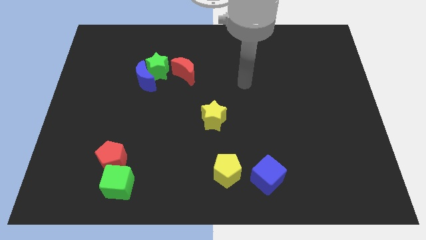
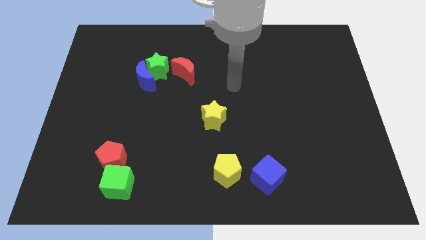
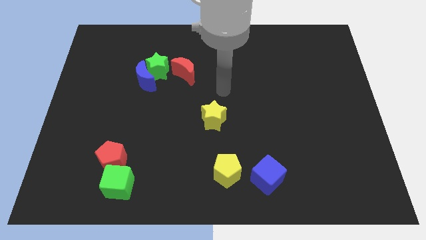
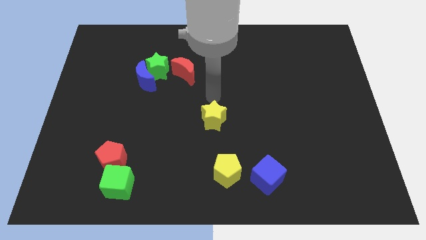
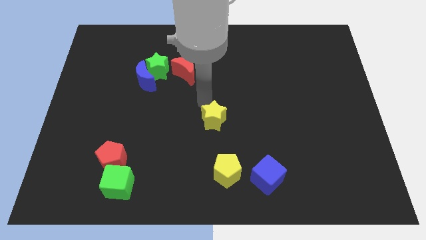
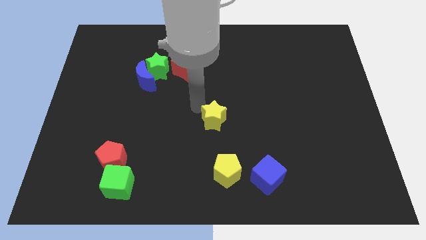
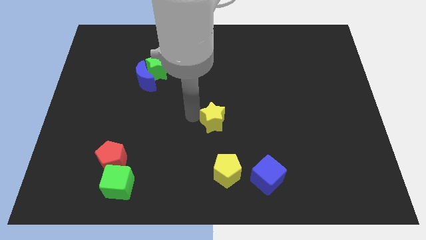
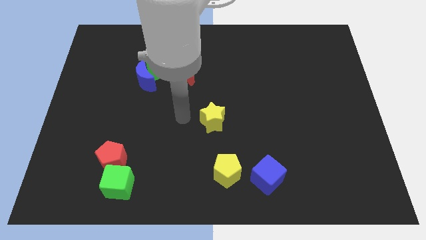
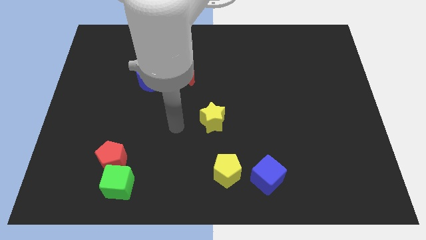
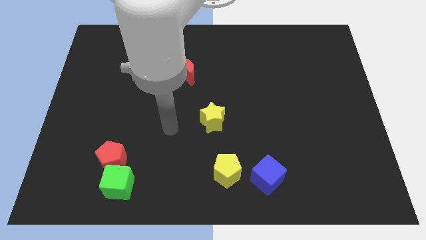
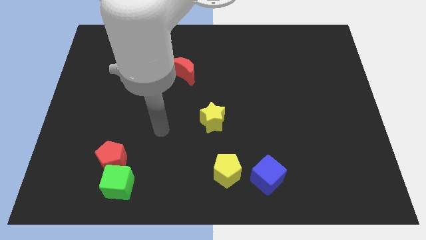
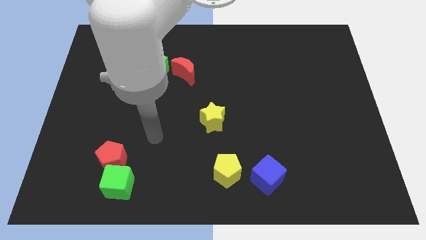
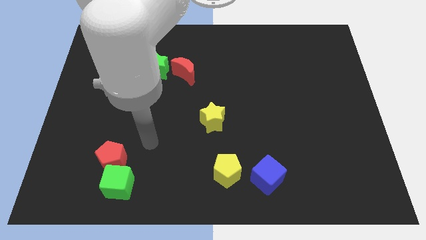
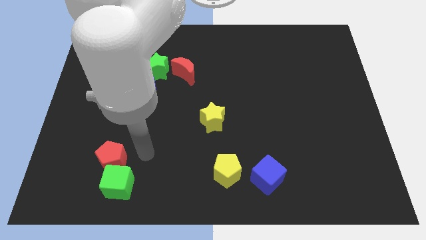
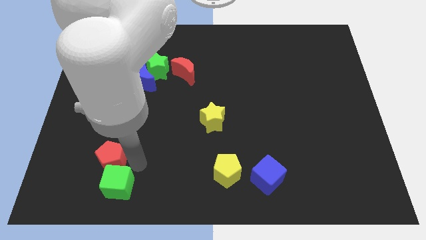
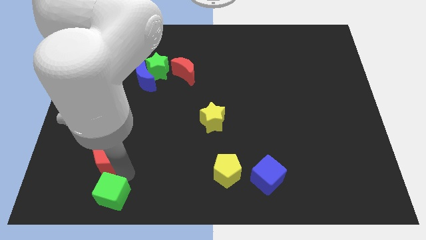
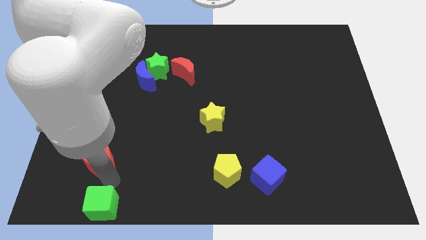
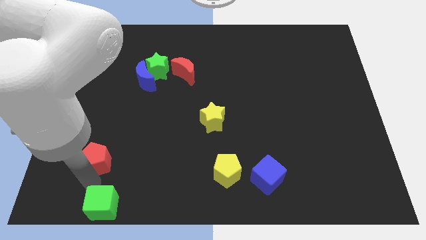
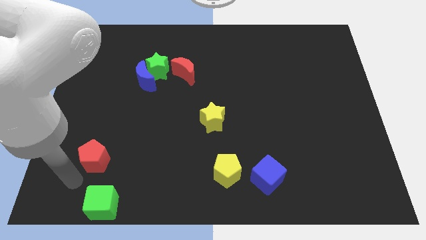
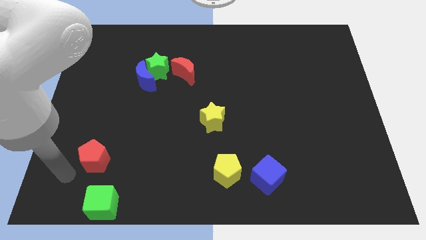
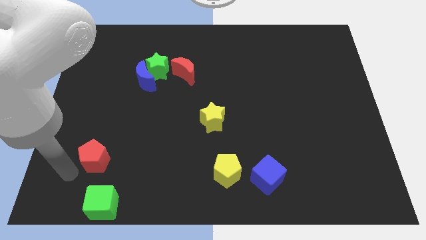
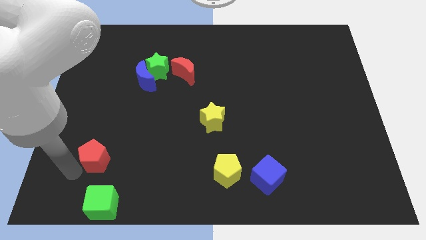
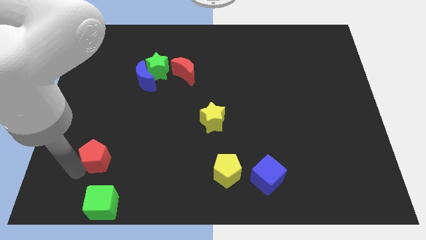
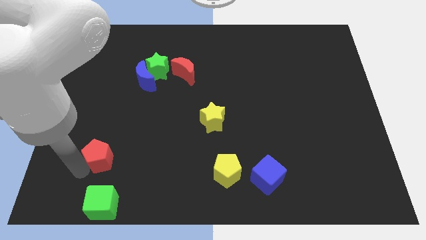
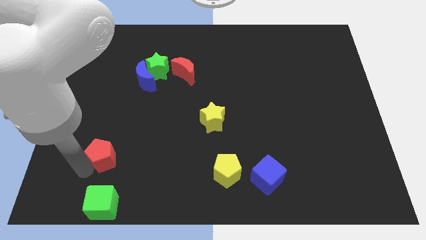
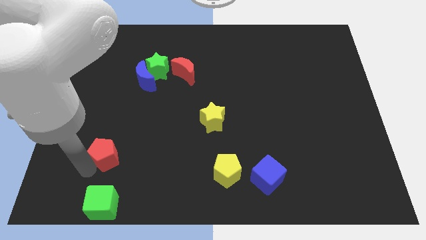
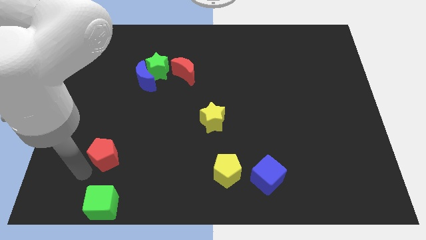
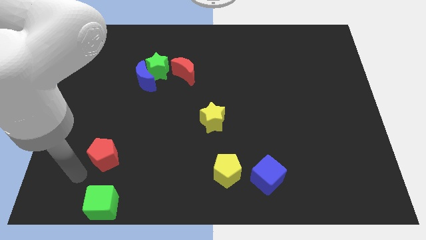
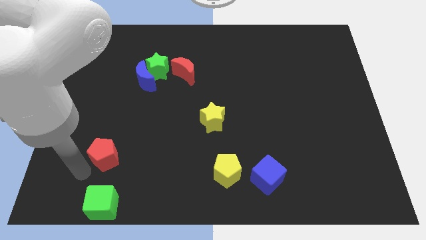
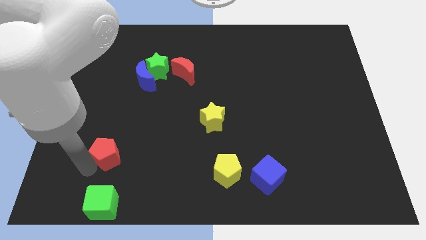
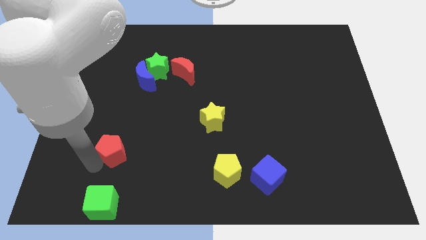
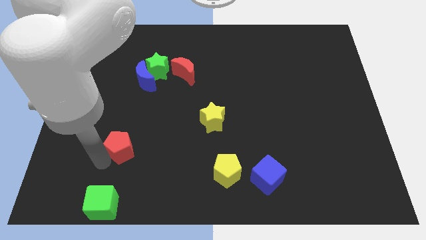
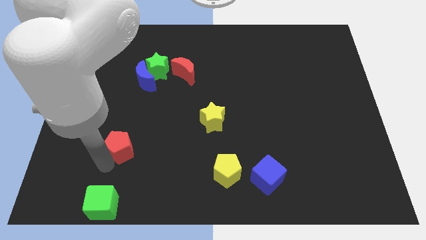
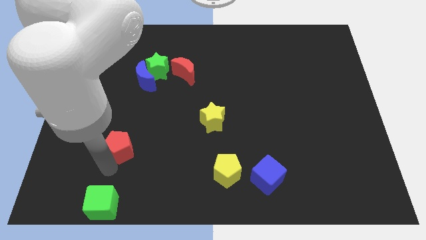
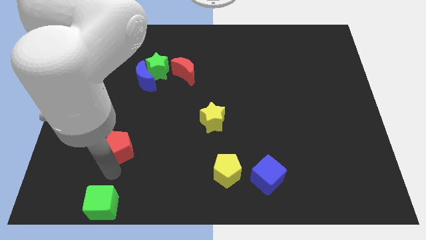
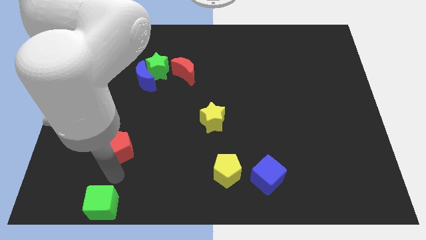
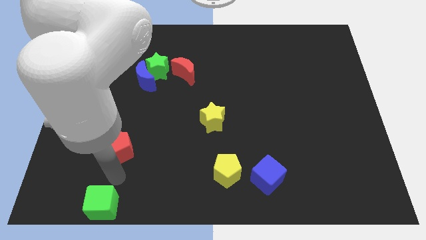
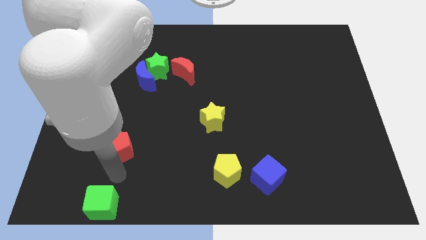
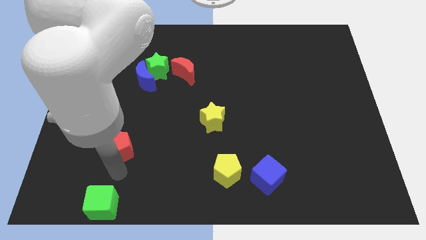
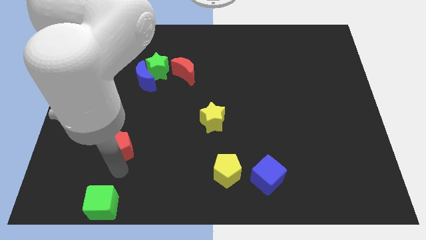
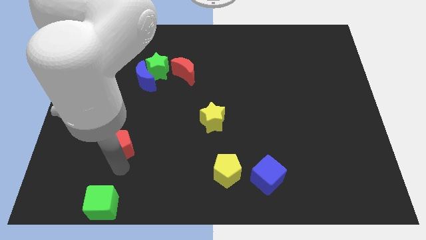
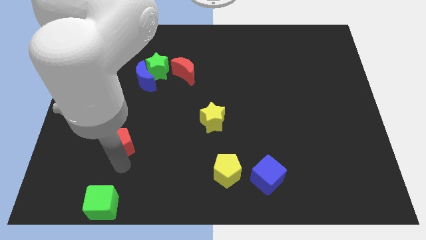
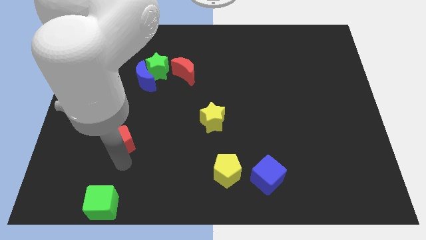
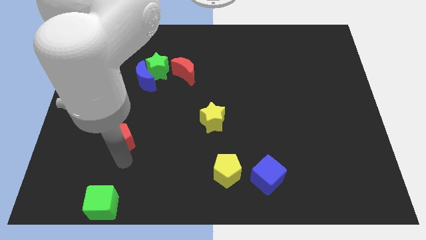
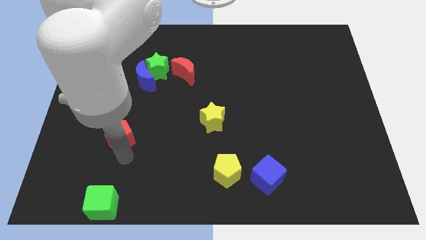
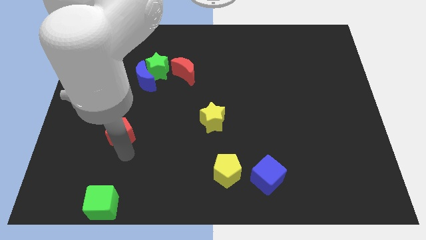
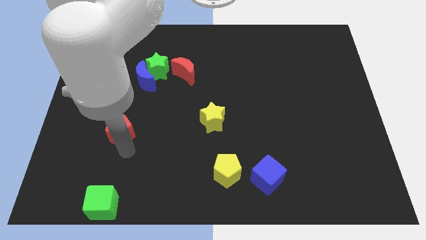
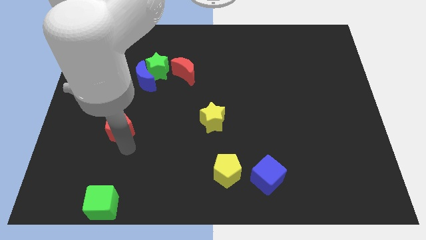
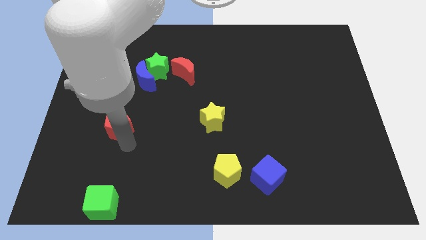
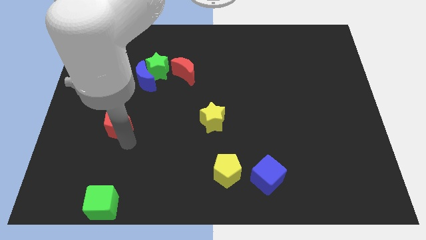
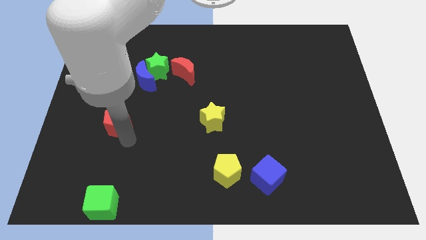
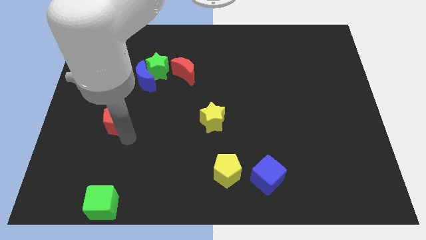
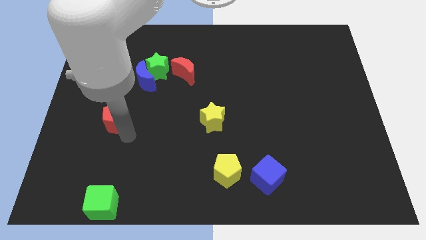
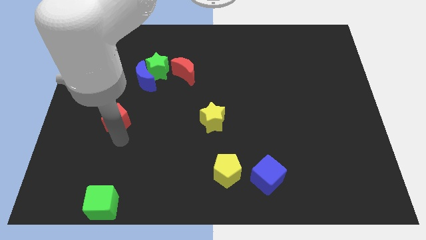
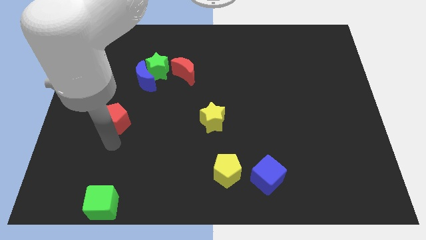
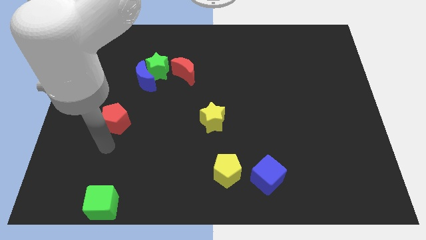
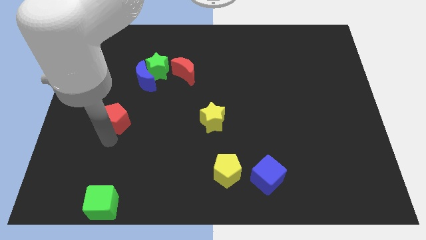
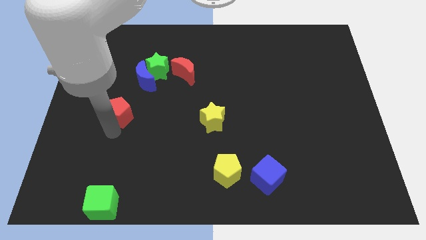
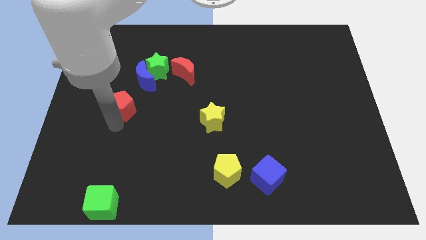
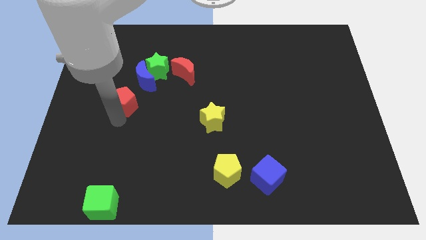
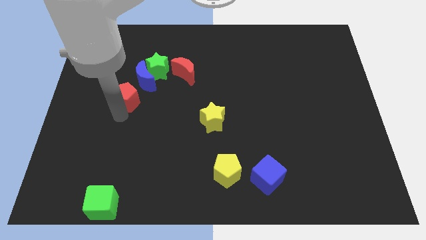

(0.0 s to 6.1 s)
slide the red pentagon to the bottom left of the green star

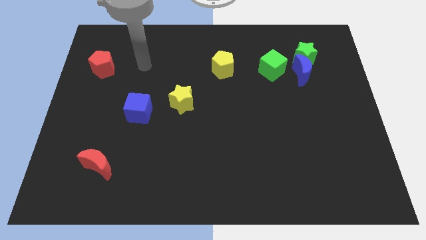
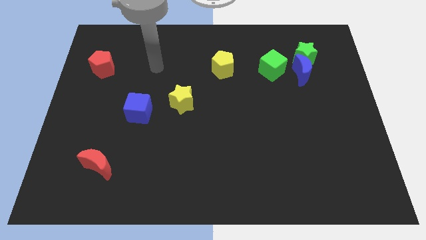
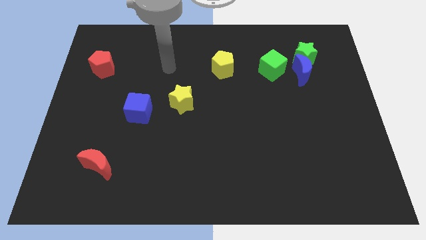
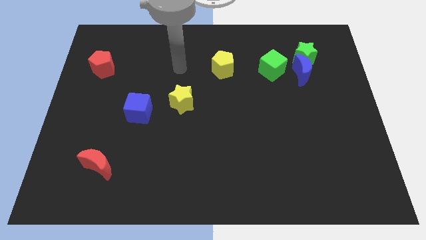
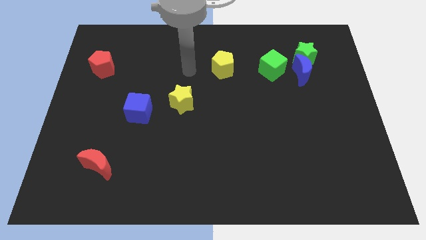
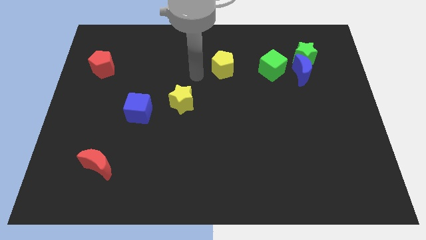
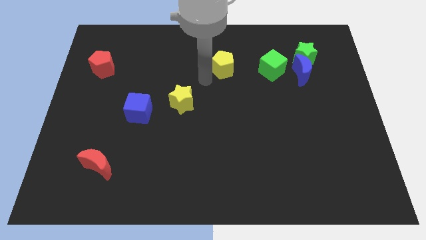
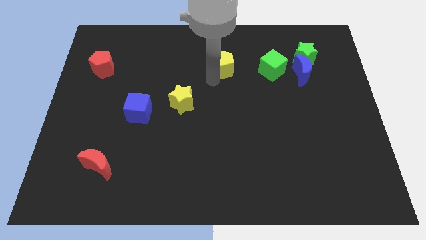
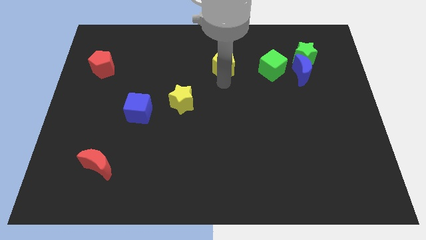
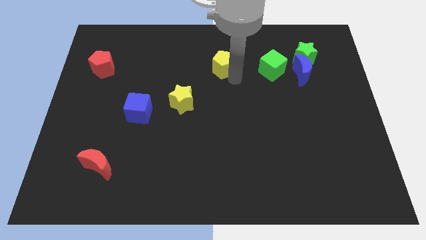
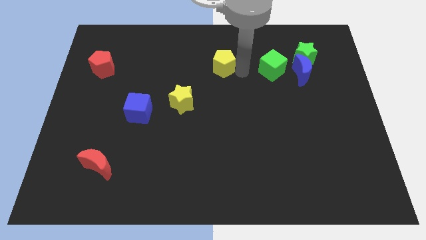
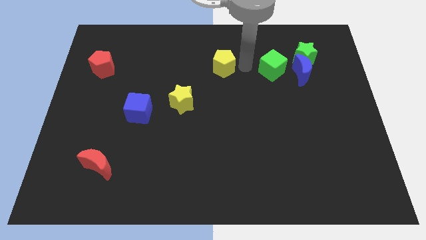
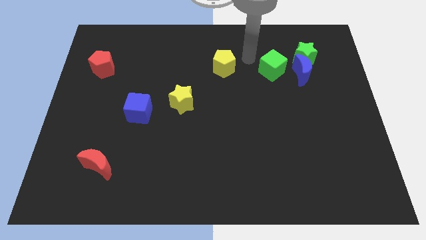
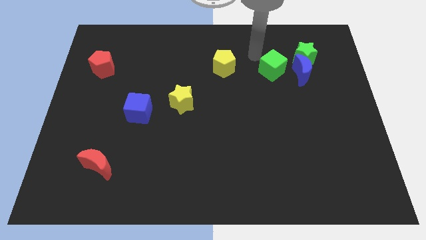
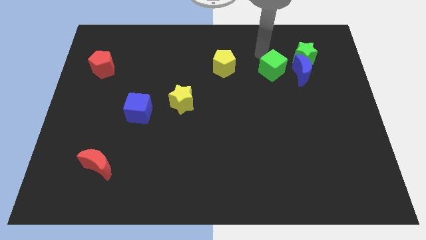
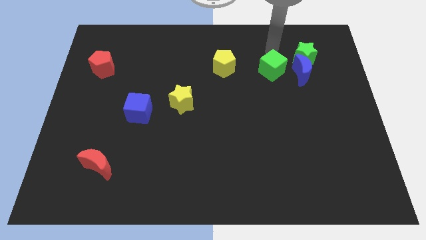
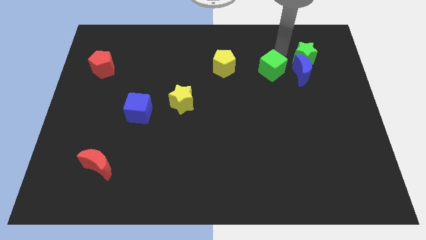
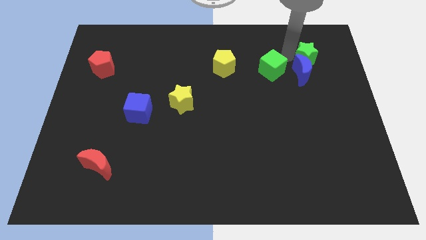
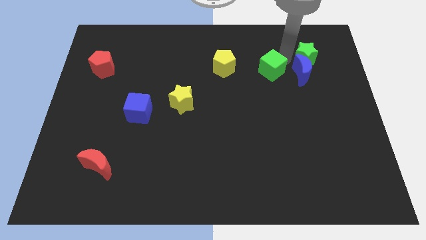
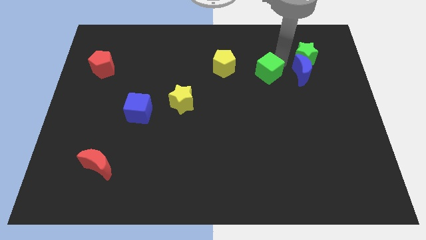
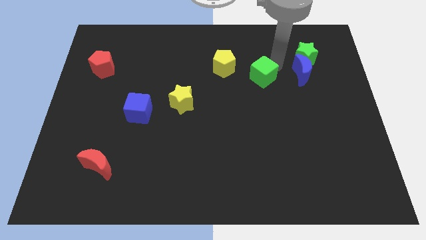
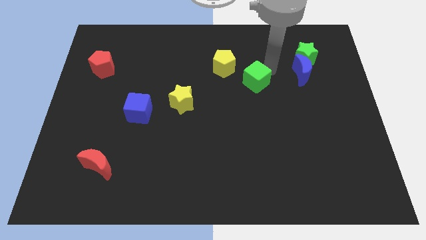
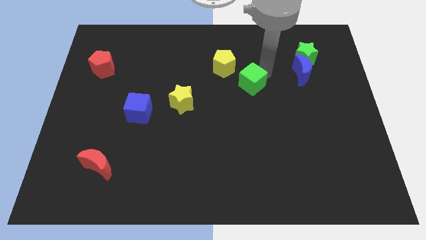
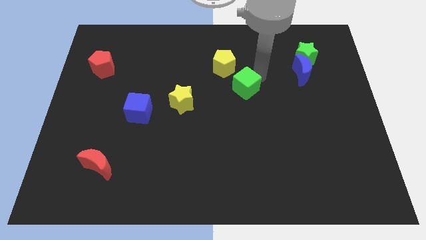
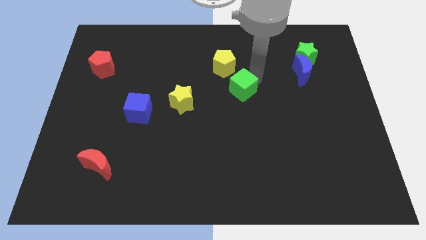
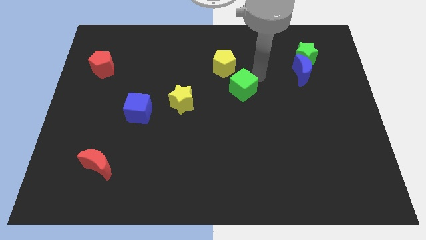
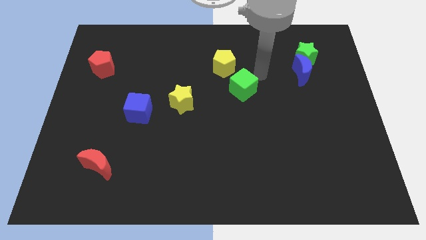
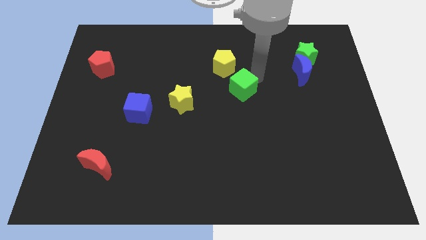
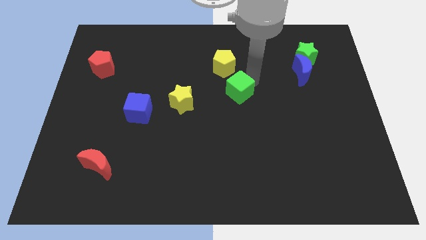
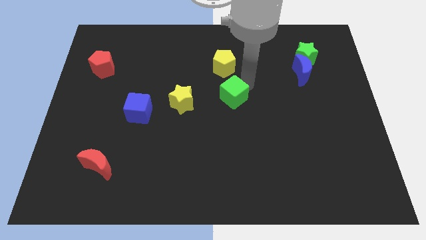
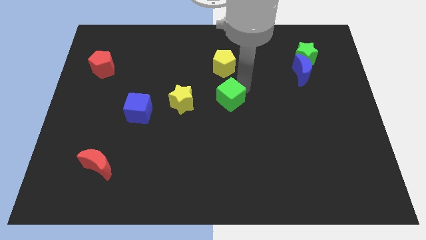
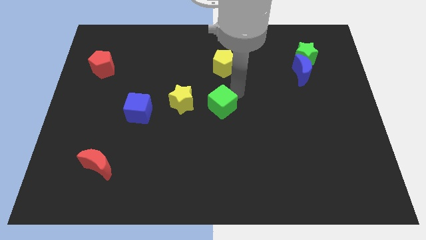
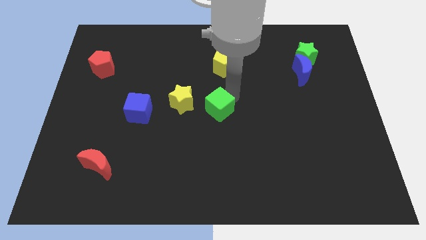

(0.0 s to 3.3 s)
put the green cube to the bottom right side of the yellow star
